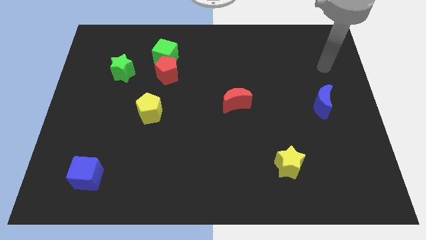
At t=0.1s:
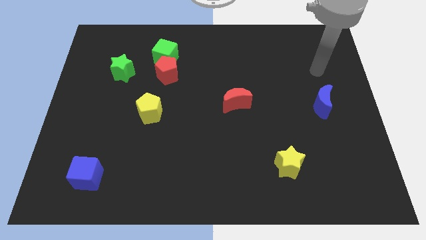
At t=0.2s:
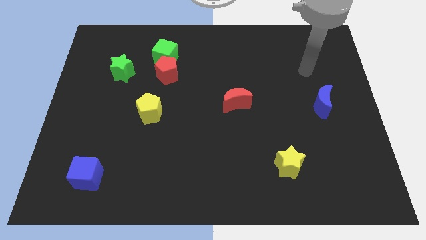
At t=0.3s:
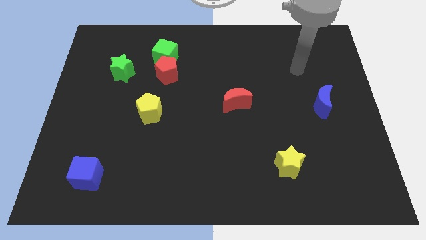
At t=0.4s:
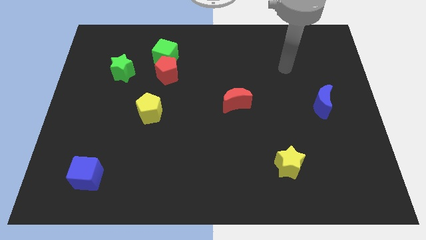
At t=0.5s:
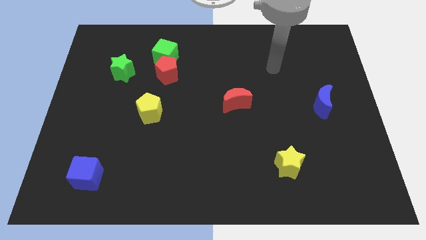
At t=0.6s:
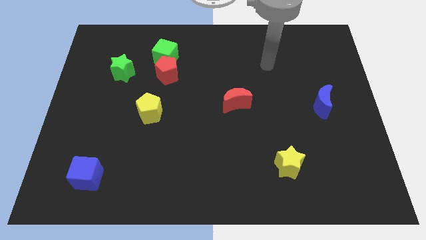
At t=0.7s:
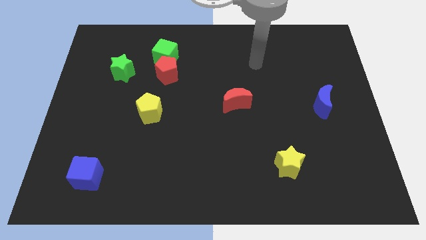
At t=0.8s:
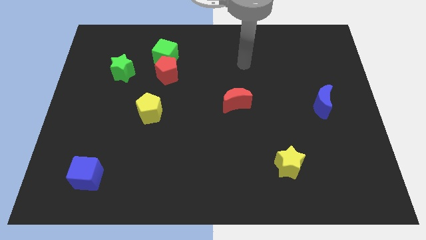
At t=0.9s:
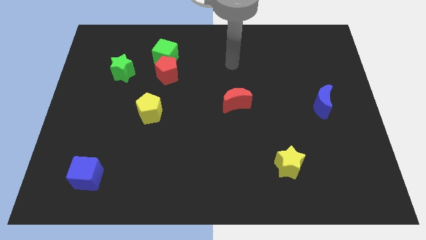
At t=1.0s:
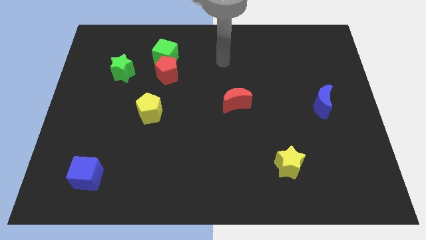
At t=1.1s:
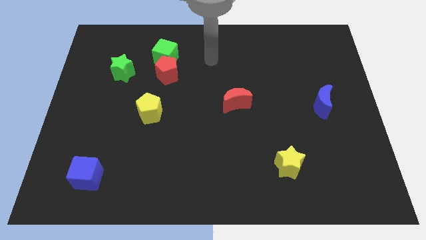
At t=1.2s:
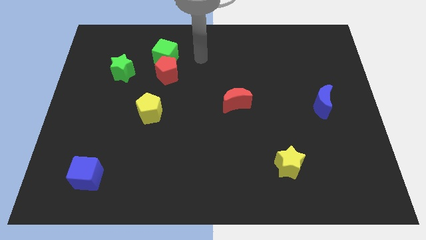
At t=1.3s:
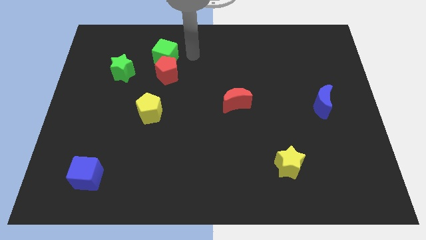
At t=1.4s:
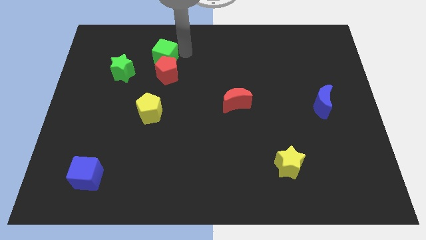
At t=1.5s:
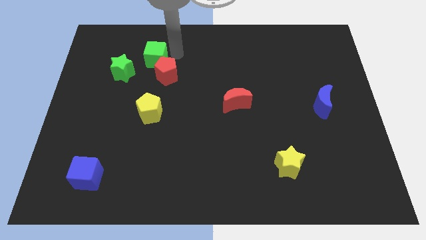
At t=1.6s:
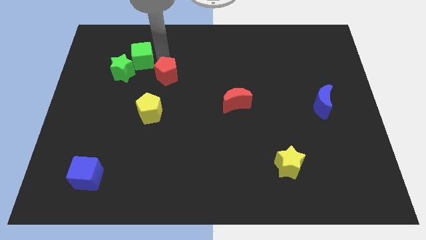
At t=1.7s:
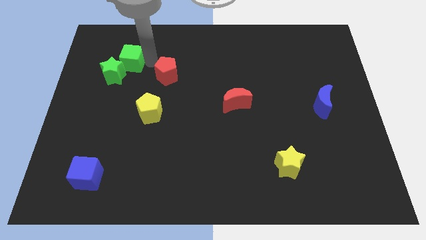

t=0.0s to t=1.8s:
move the red pentagon away from the green cube

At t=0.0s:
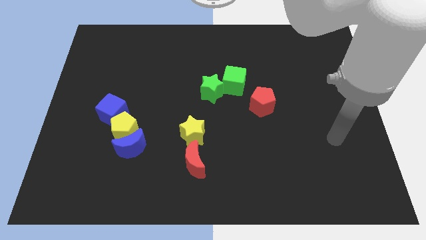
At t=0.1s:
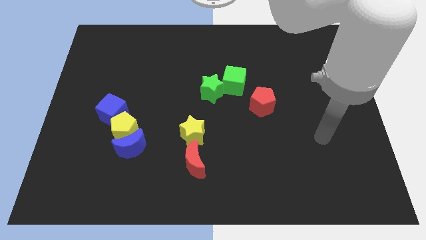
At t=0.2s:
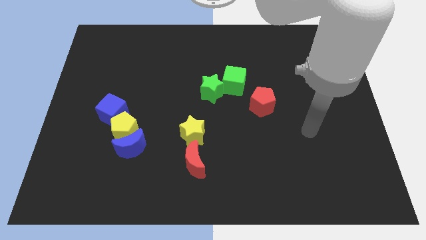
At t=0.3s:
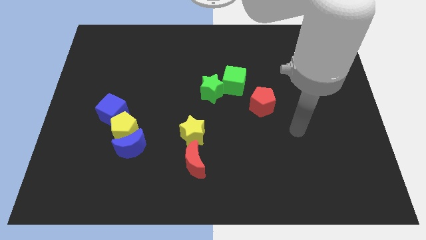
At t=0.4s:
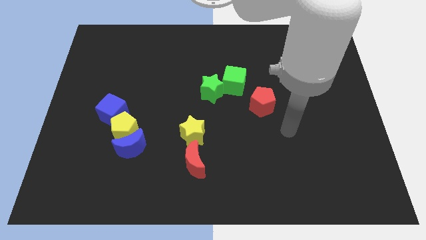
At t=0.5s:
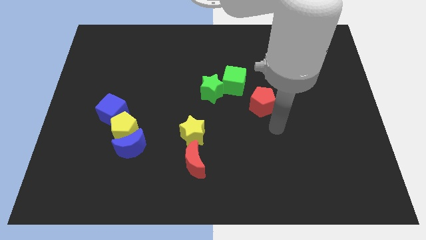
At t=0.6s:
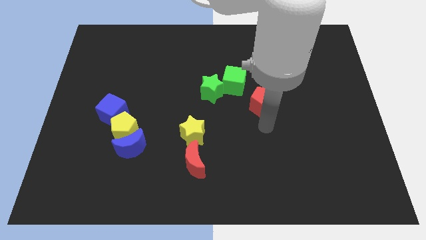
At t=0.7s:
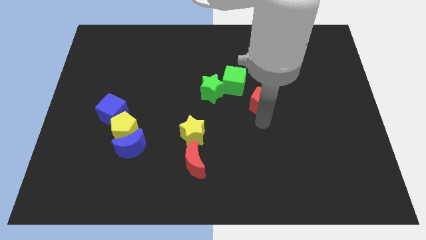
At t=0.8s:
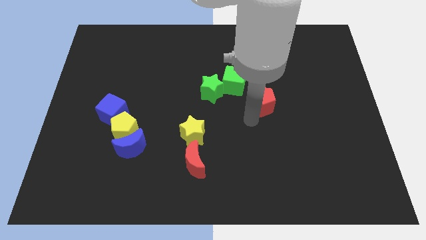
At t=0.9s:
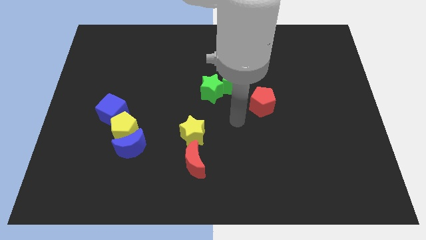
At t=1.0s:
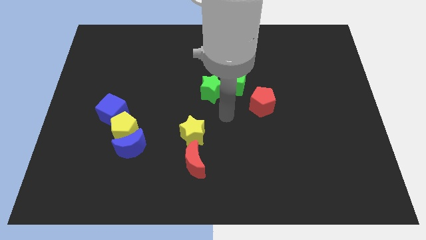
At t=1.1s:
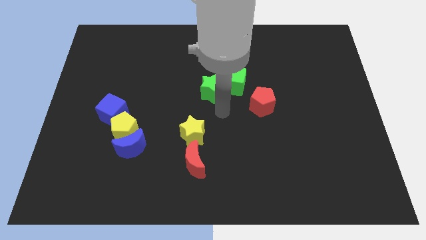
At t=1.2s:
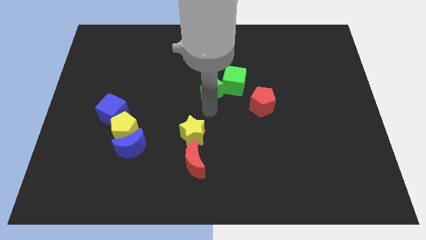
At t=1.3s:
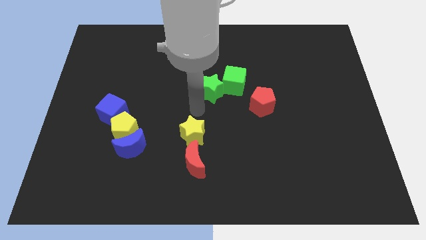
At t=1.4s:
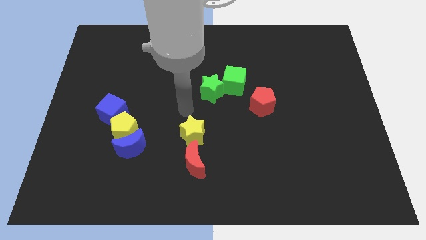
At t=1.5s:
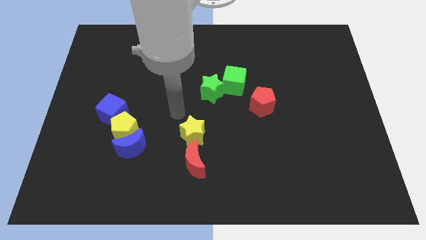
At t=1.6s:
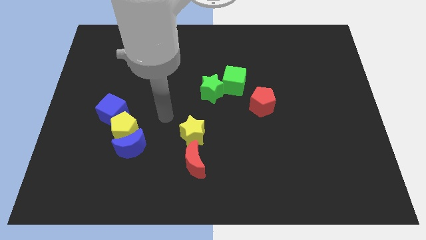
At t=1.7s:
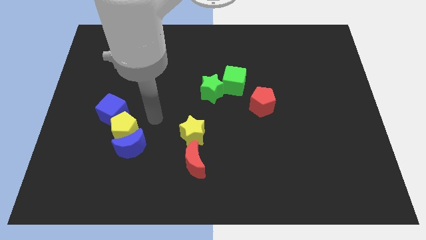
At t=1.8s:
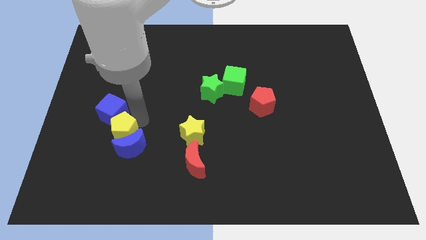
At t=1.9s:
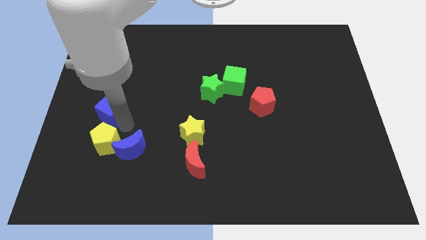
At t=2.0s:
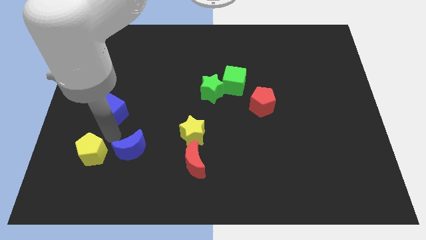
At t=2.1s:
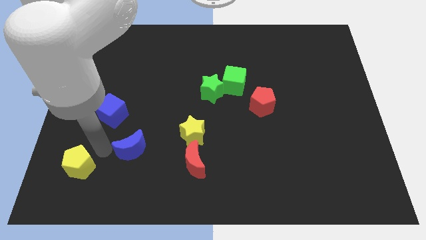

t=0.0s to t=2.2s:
pull the blue moon apart from the yellow pentagon

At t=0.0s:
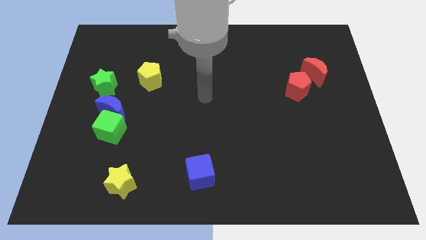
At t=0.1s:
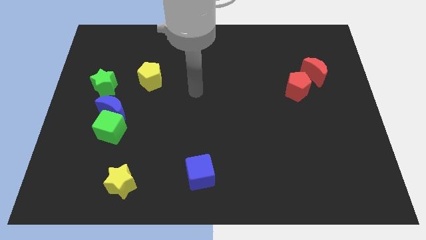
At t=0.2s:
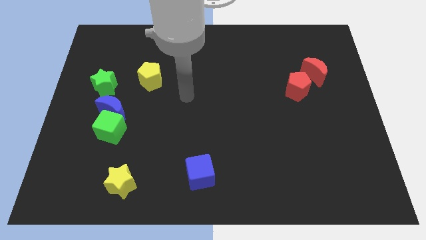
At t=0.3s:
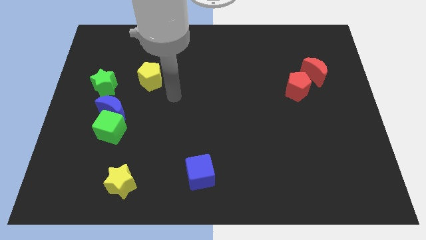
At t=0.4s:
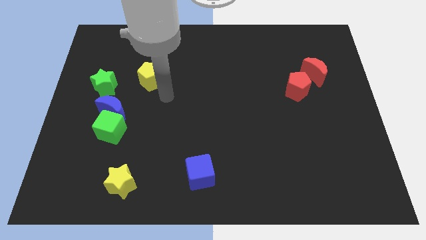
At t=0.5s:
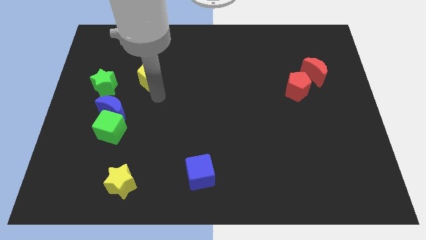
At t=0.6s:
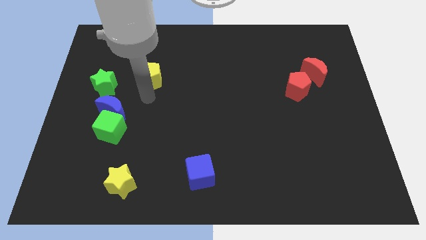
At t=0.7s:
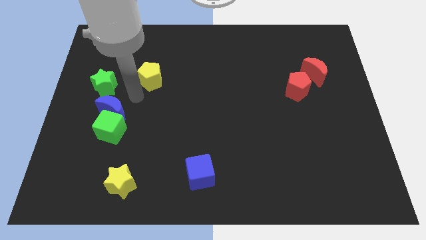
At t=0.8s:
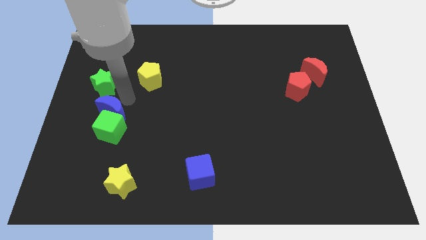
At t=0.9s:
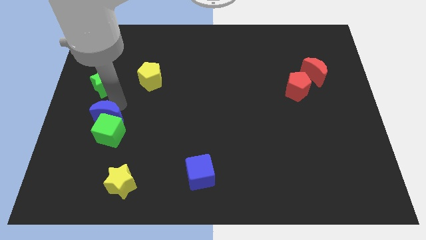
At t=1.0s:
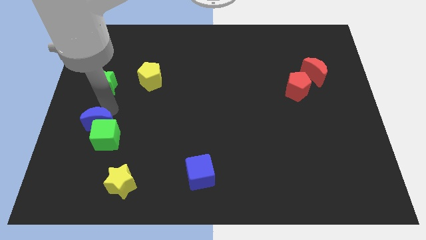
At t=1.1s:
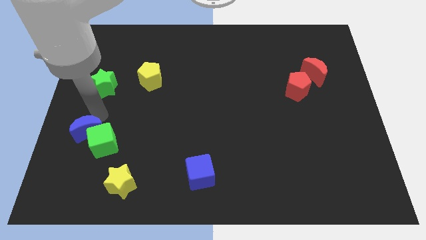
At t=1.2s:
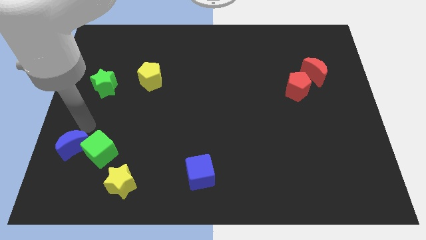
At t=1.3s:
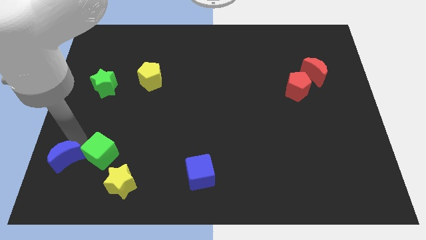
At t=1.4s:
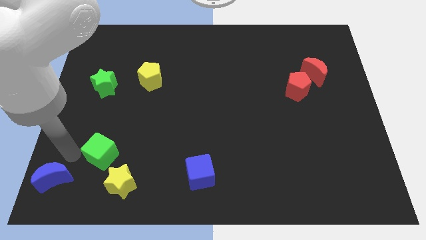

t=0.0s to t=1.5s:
separate the green cube from the blue moon

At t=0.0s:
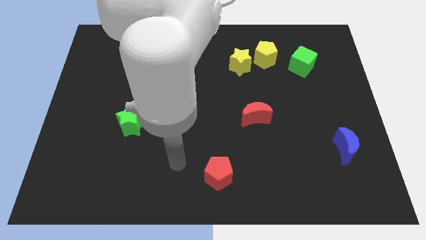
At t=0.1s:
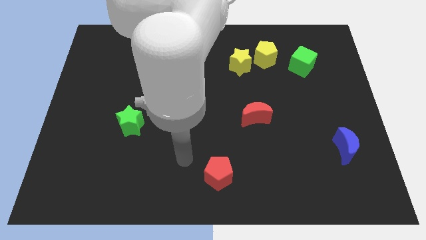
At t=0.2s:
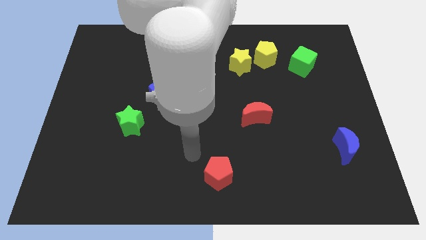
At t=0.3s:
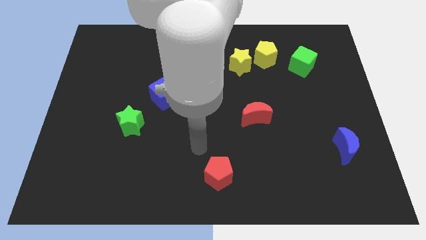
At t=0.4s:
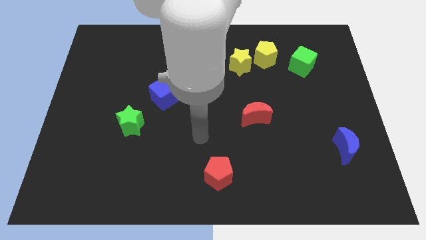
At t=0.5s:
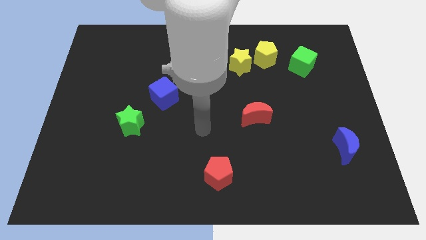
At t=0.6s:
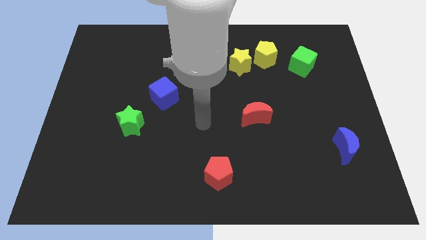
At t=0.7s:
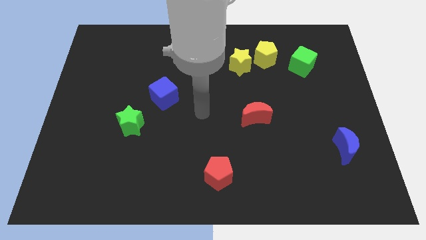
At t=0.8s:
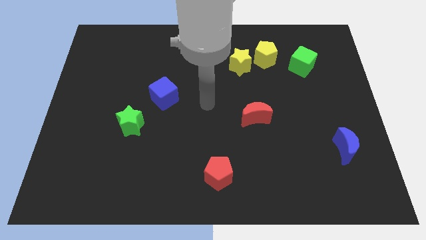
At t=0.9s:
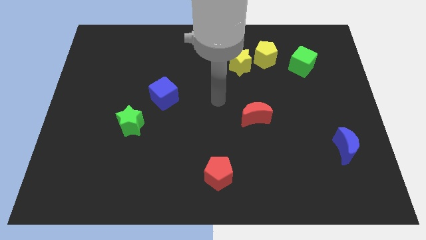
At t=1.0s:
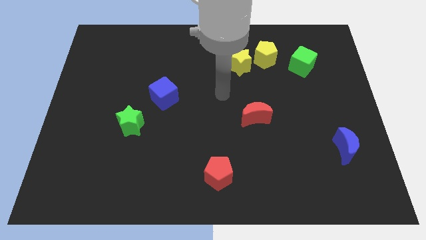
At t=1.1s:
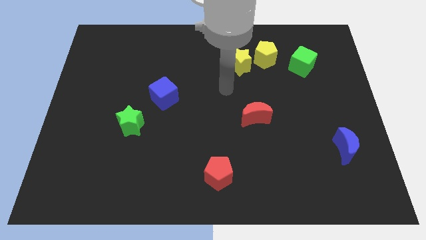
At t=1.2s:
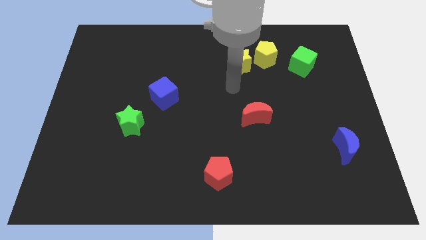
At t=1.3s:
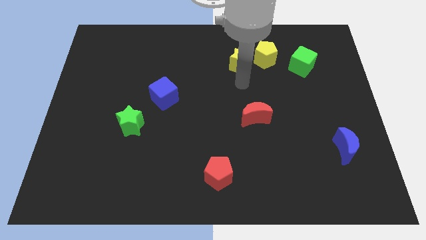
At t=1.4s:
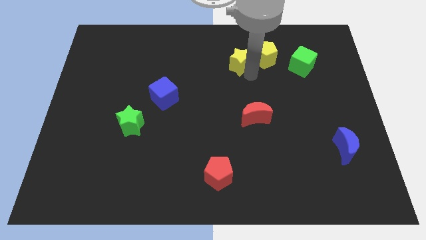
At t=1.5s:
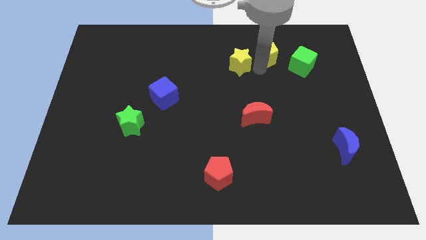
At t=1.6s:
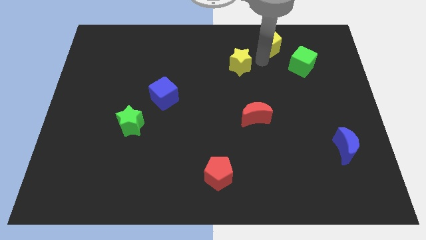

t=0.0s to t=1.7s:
separate the yellow star from the yellow pentagon

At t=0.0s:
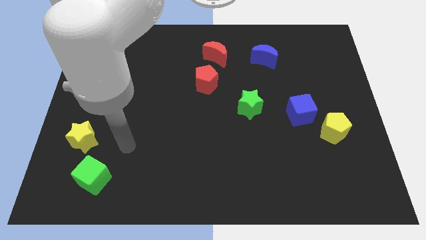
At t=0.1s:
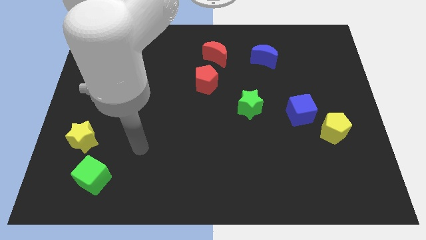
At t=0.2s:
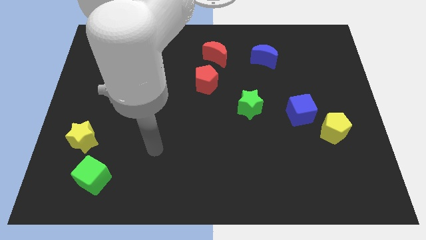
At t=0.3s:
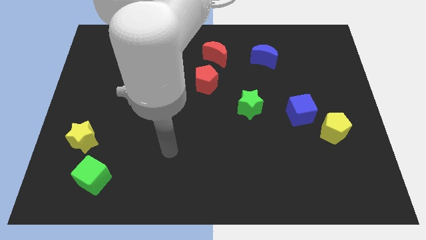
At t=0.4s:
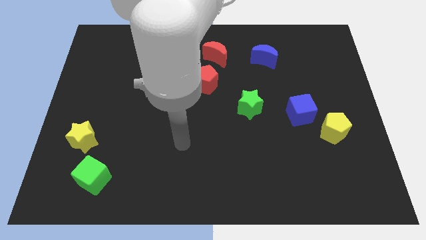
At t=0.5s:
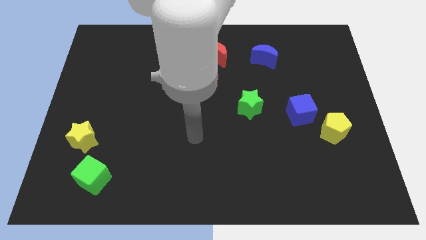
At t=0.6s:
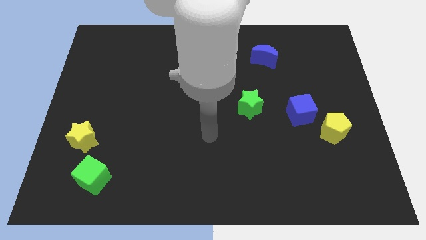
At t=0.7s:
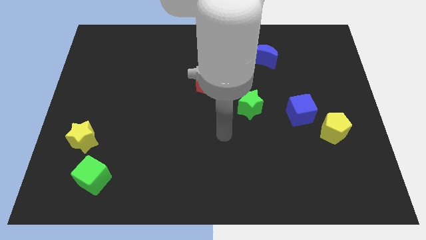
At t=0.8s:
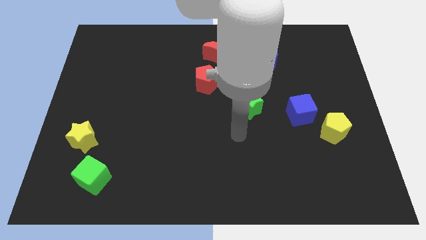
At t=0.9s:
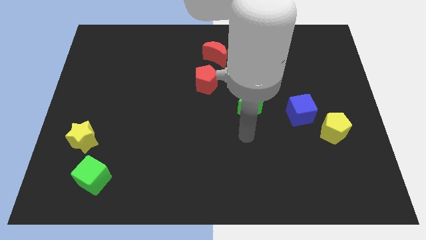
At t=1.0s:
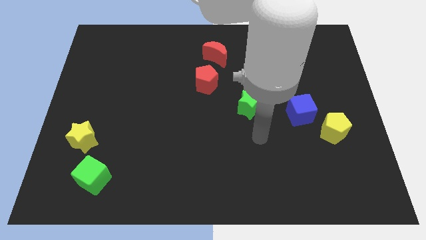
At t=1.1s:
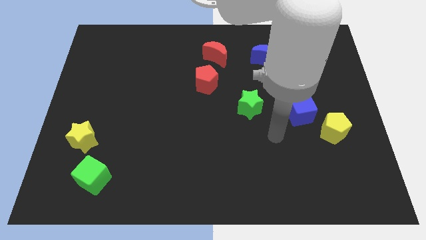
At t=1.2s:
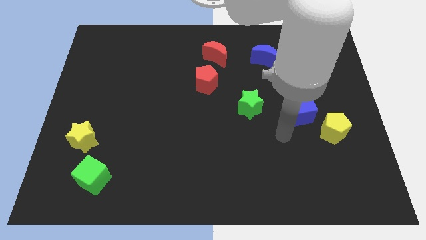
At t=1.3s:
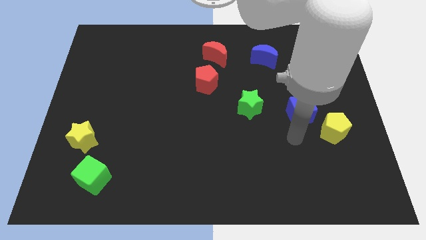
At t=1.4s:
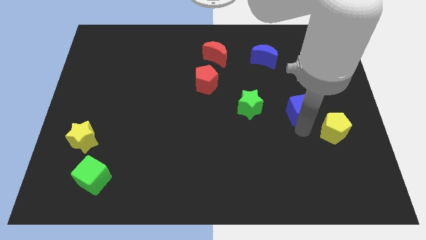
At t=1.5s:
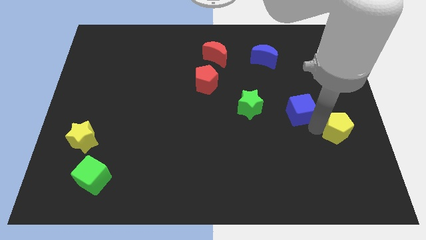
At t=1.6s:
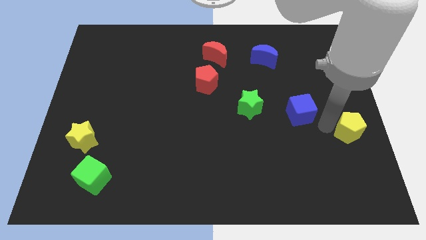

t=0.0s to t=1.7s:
pull the blue cube apart from the yellow pentagon

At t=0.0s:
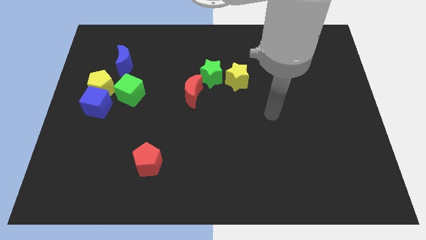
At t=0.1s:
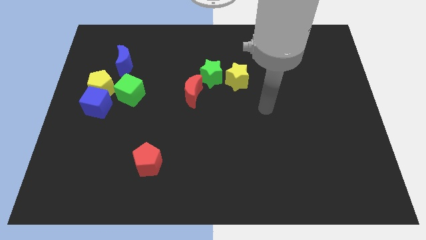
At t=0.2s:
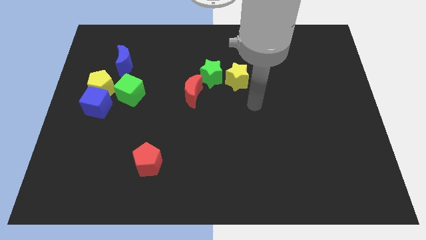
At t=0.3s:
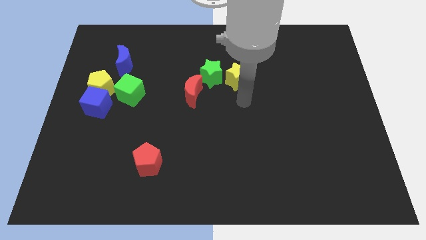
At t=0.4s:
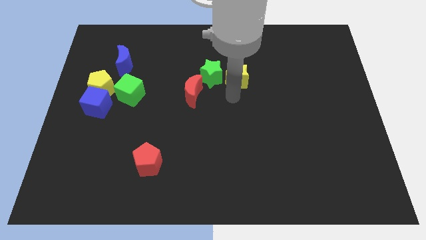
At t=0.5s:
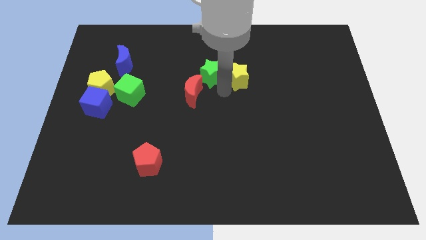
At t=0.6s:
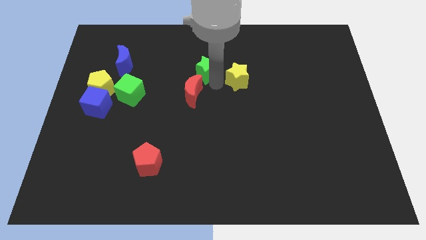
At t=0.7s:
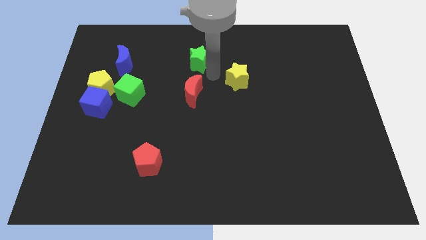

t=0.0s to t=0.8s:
move the yellow star away from the green star
